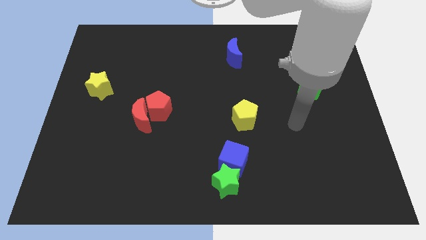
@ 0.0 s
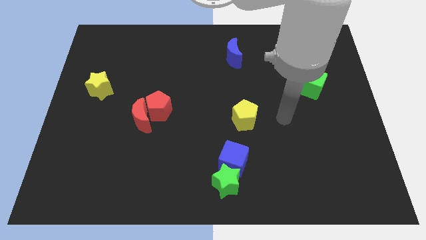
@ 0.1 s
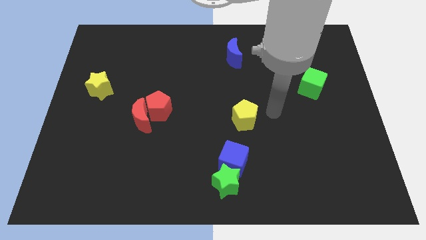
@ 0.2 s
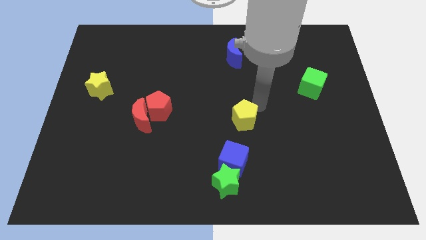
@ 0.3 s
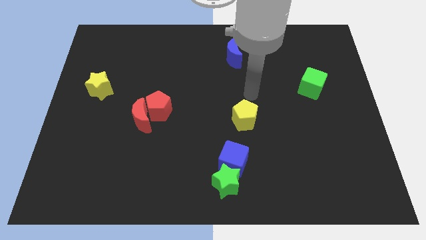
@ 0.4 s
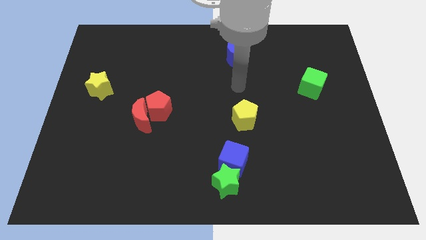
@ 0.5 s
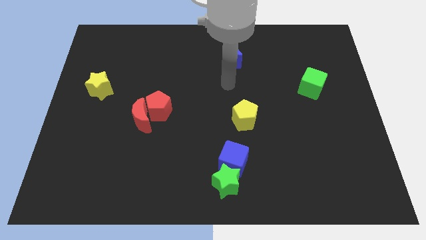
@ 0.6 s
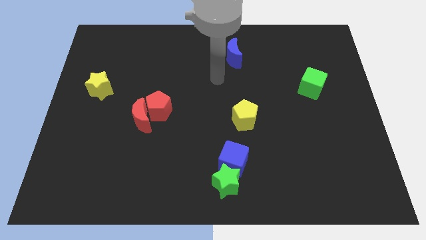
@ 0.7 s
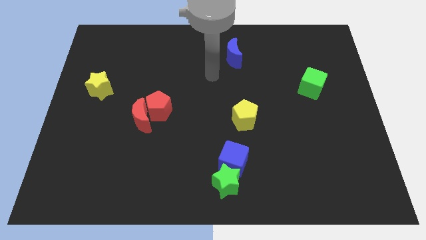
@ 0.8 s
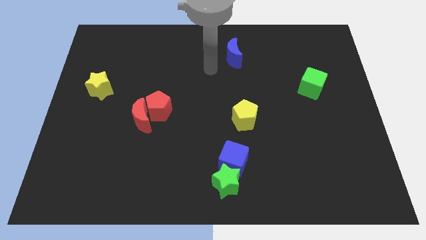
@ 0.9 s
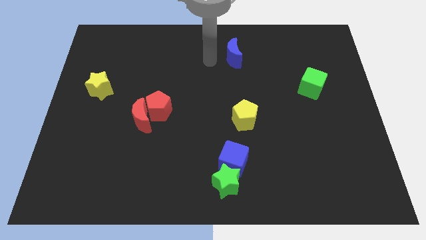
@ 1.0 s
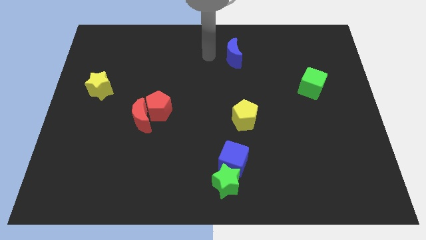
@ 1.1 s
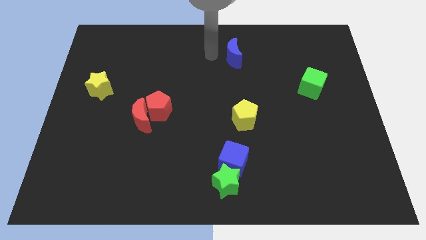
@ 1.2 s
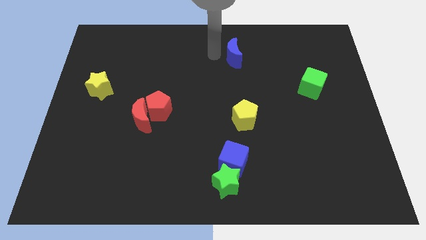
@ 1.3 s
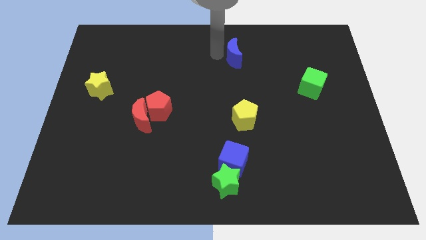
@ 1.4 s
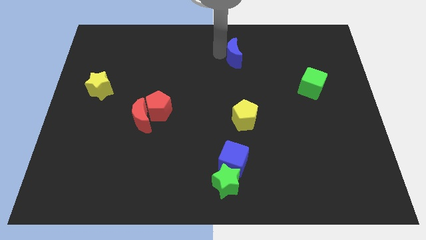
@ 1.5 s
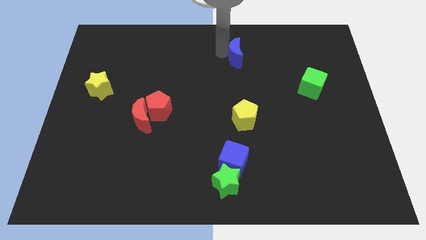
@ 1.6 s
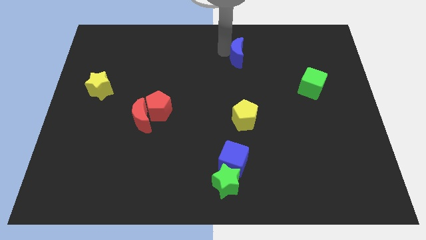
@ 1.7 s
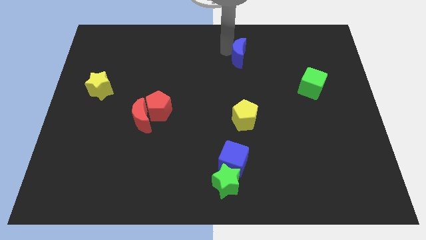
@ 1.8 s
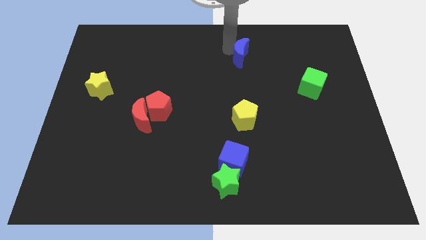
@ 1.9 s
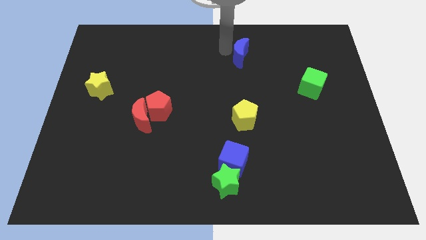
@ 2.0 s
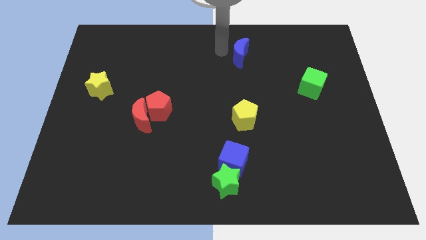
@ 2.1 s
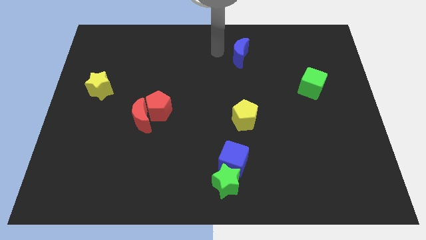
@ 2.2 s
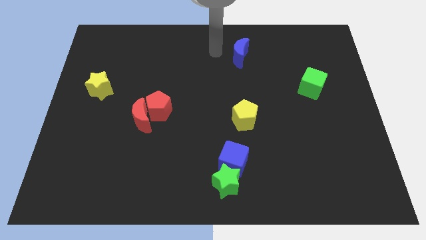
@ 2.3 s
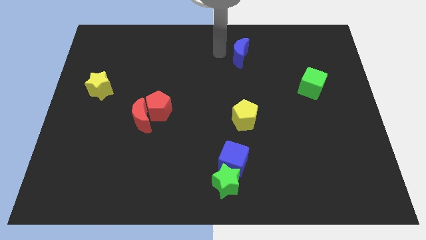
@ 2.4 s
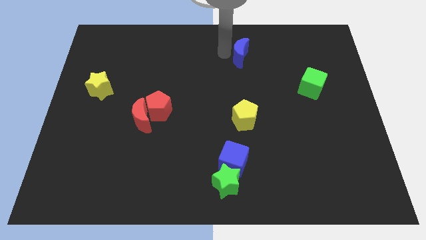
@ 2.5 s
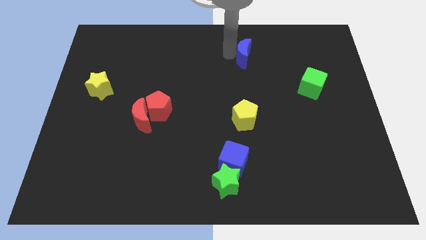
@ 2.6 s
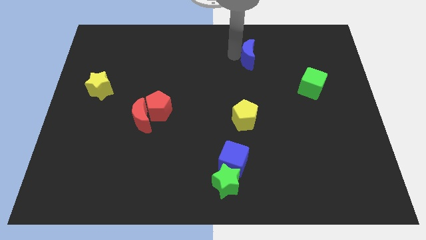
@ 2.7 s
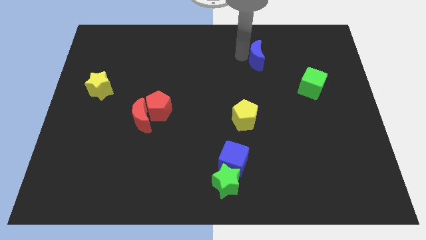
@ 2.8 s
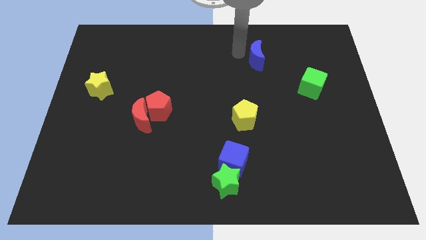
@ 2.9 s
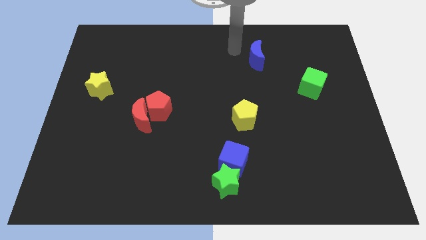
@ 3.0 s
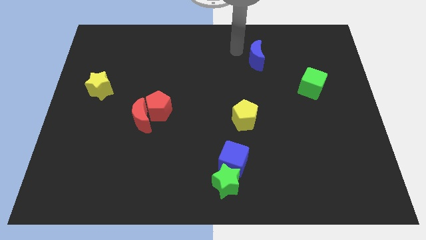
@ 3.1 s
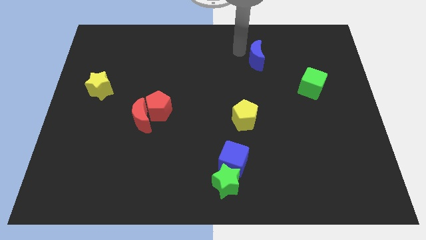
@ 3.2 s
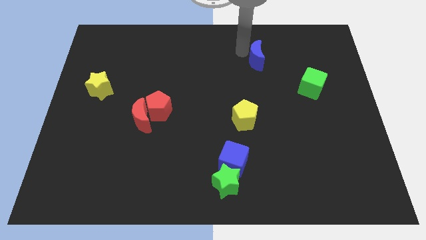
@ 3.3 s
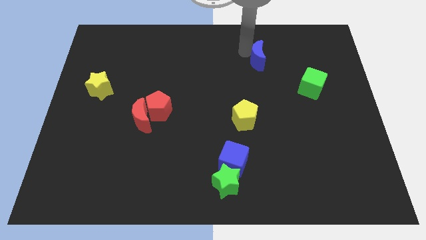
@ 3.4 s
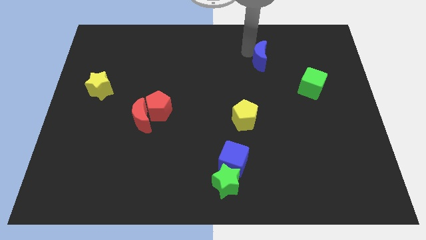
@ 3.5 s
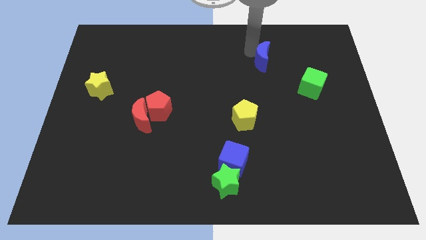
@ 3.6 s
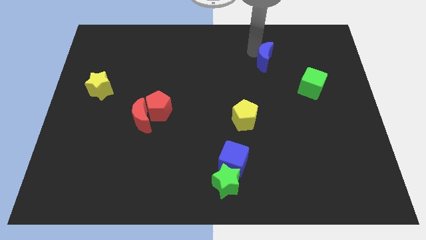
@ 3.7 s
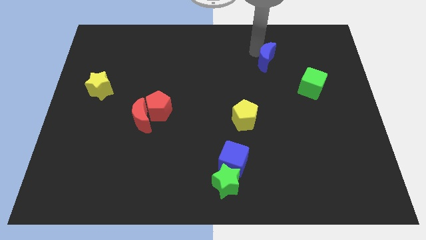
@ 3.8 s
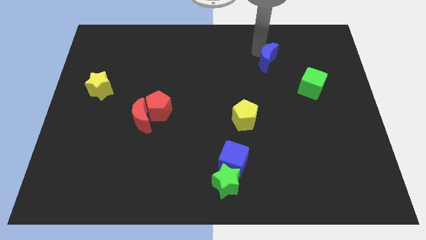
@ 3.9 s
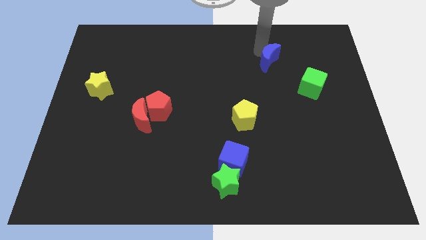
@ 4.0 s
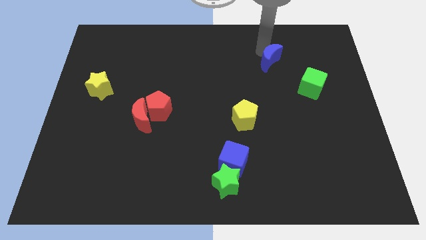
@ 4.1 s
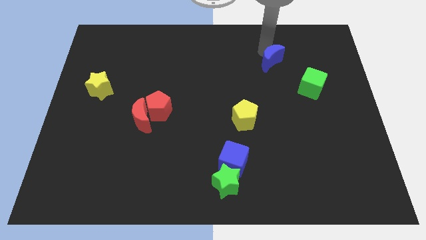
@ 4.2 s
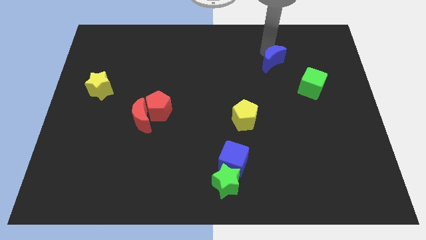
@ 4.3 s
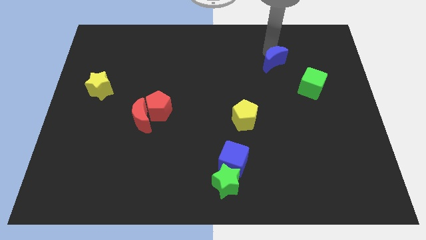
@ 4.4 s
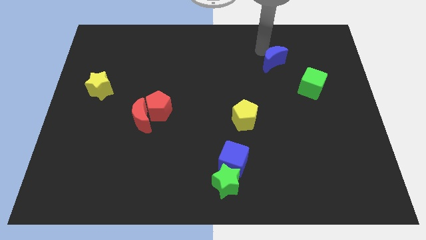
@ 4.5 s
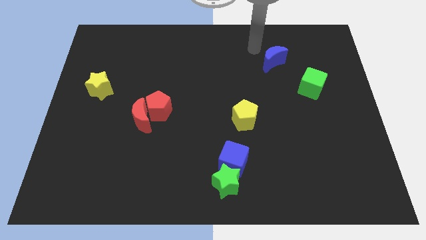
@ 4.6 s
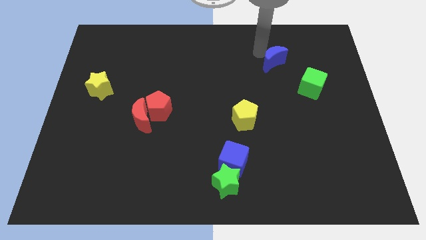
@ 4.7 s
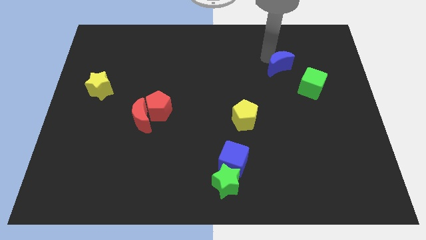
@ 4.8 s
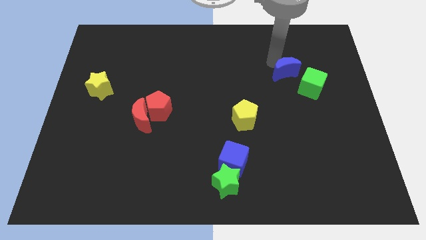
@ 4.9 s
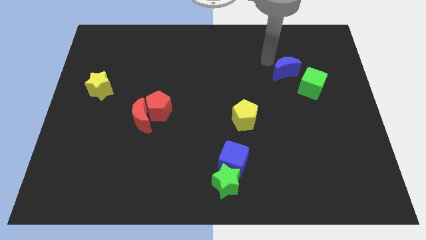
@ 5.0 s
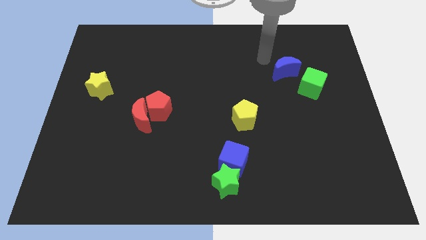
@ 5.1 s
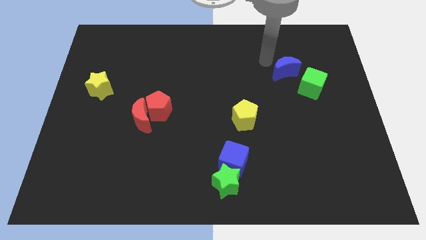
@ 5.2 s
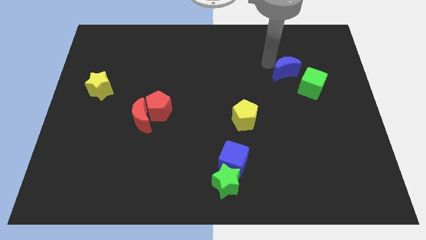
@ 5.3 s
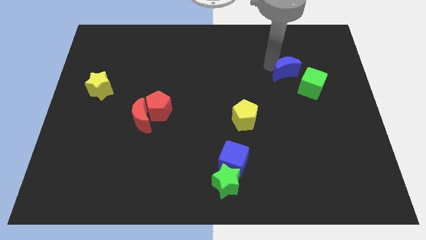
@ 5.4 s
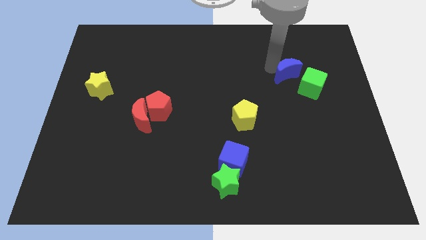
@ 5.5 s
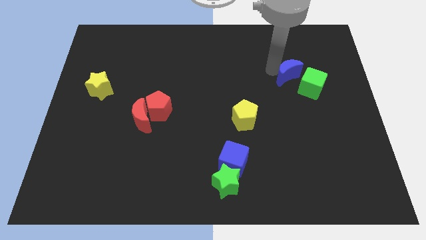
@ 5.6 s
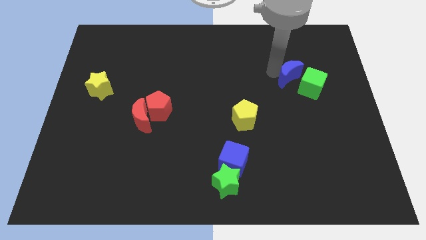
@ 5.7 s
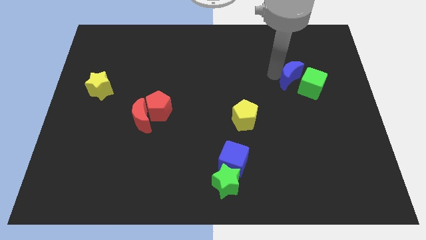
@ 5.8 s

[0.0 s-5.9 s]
push the blue moon to the green cube
